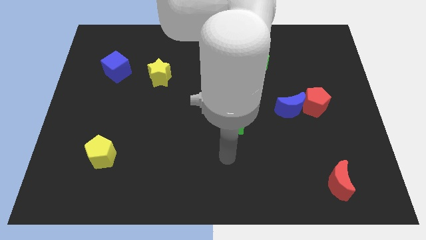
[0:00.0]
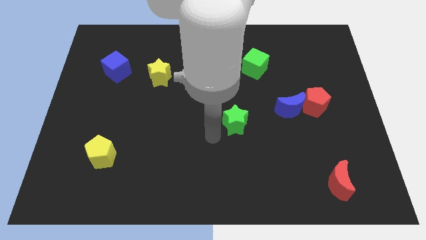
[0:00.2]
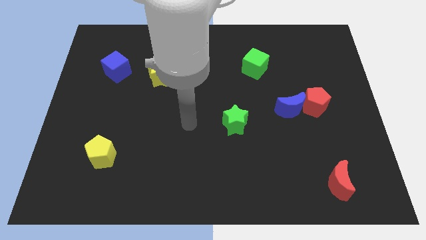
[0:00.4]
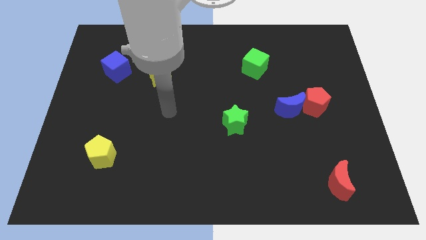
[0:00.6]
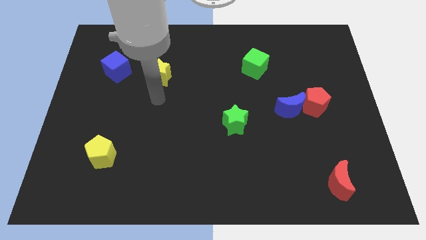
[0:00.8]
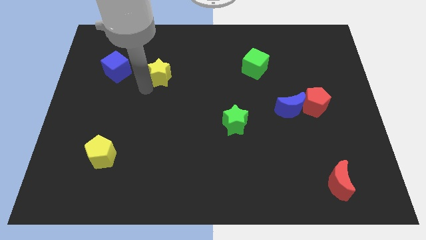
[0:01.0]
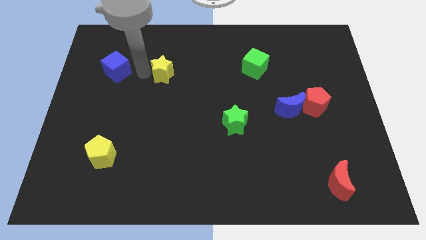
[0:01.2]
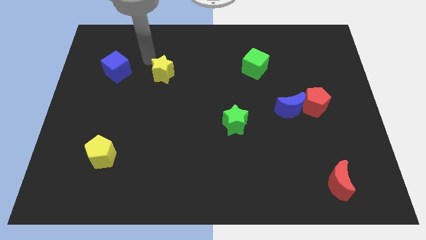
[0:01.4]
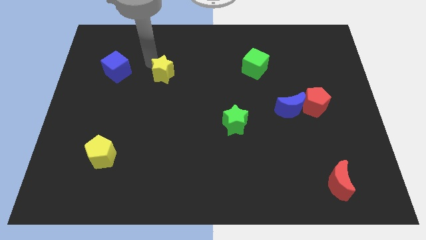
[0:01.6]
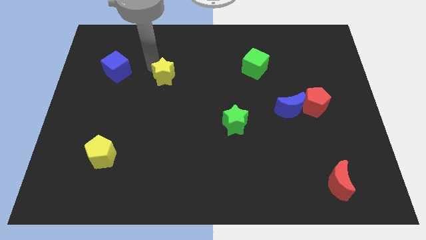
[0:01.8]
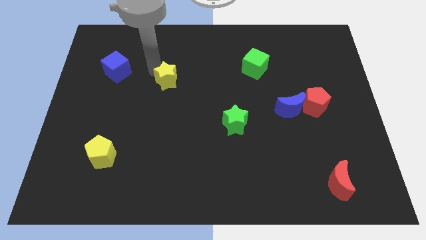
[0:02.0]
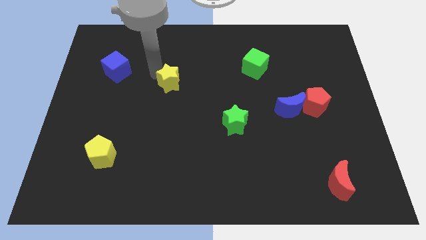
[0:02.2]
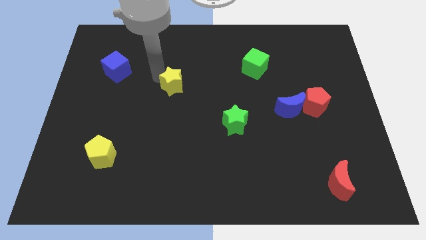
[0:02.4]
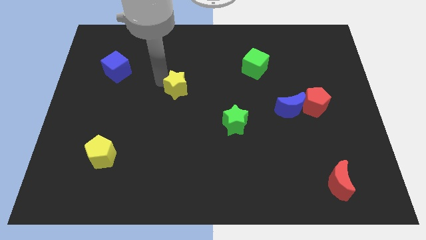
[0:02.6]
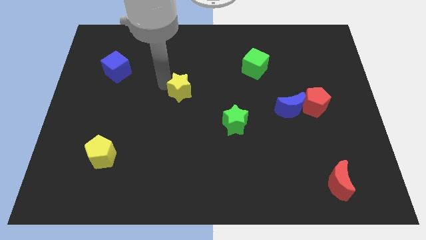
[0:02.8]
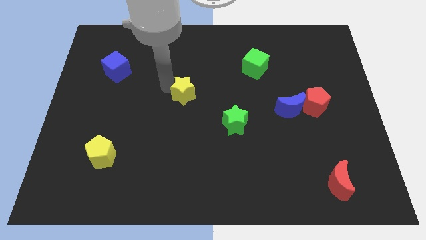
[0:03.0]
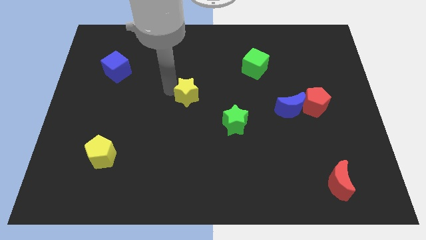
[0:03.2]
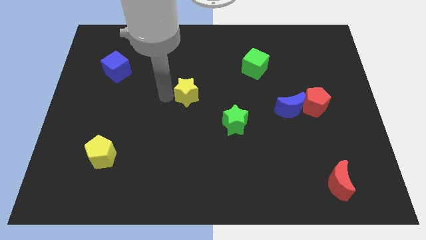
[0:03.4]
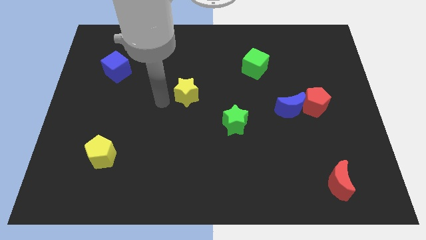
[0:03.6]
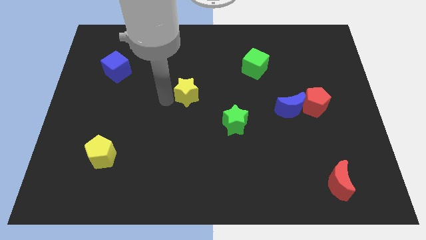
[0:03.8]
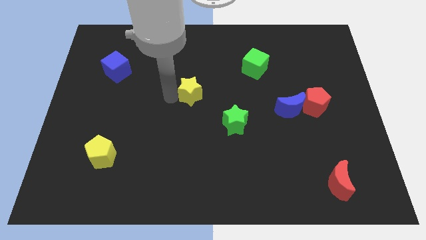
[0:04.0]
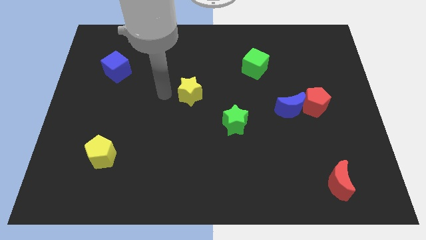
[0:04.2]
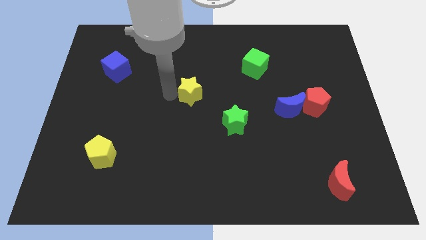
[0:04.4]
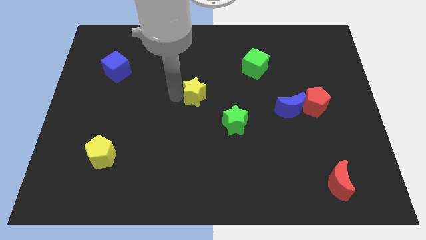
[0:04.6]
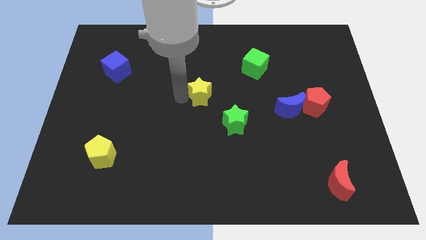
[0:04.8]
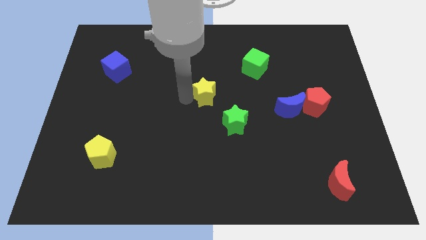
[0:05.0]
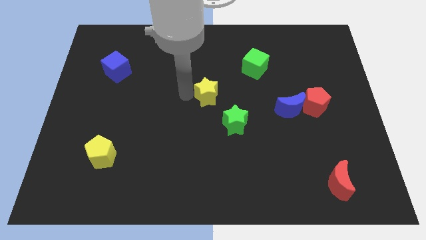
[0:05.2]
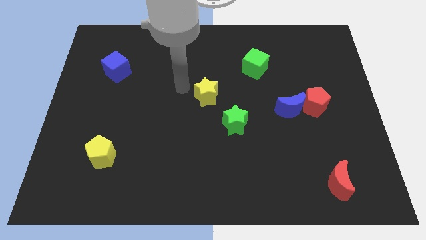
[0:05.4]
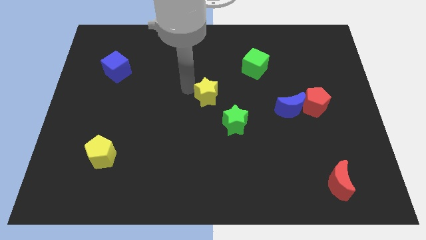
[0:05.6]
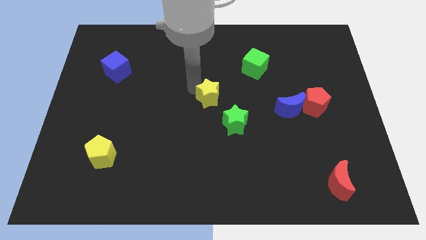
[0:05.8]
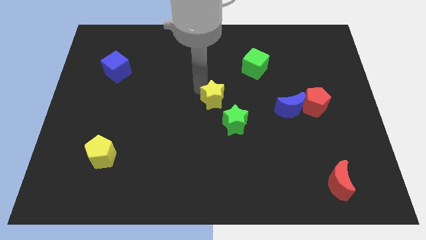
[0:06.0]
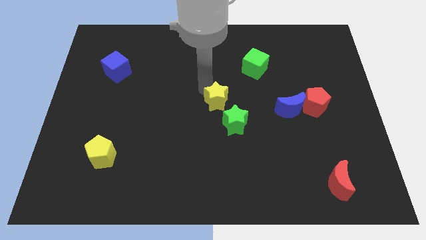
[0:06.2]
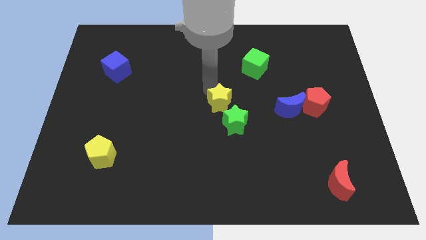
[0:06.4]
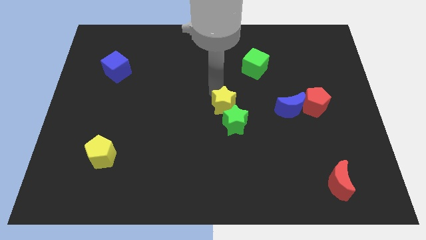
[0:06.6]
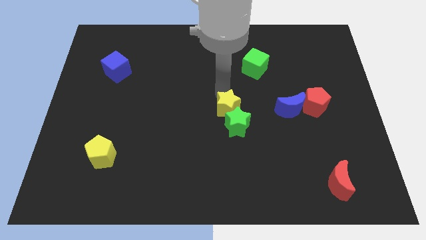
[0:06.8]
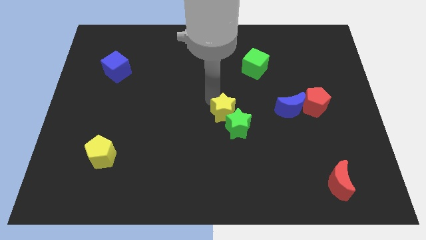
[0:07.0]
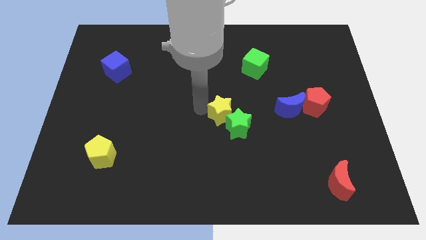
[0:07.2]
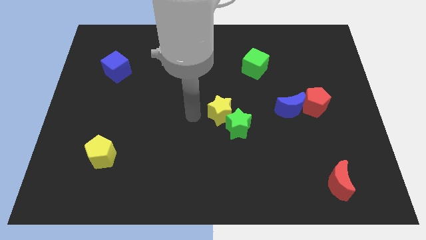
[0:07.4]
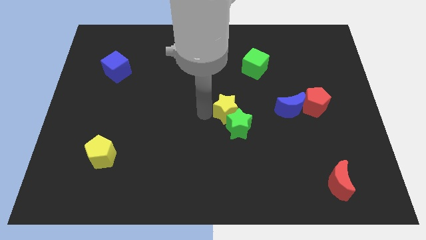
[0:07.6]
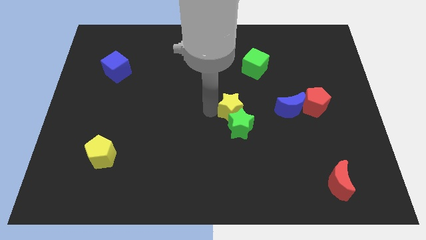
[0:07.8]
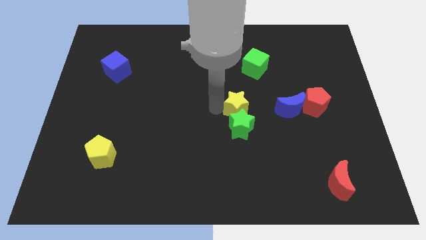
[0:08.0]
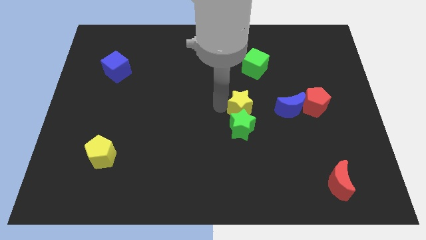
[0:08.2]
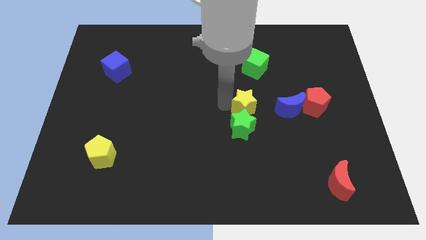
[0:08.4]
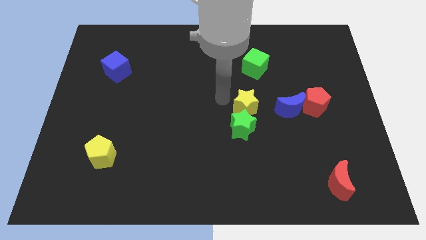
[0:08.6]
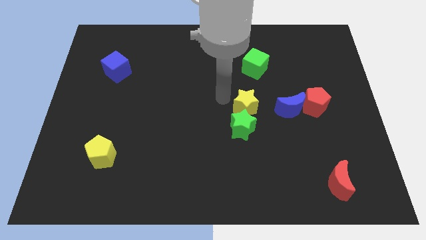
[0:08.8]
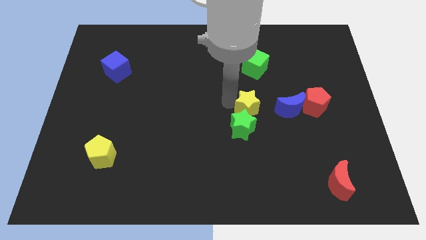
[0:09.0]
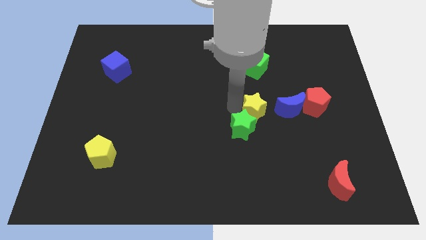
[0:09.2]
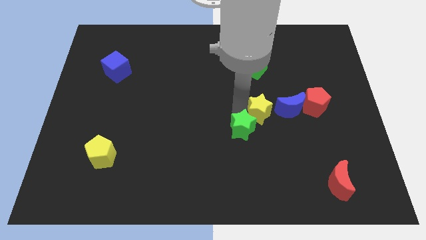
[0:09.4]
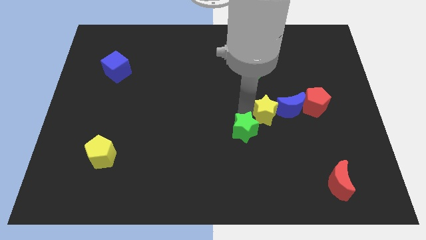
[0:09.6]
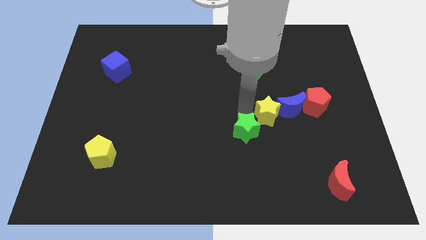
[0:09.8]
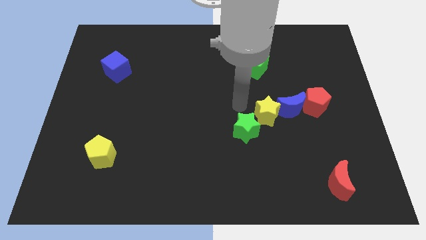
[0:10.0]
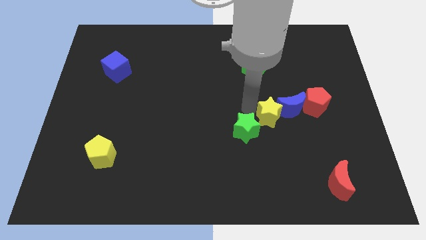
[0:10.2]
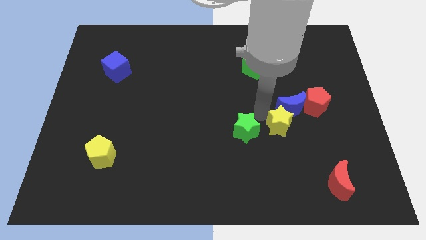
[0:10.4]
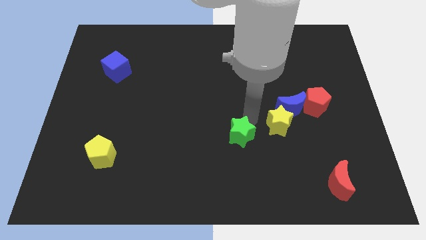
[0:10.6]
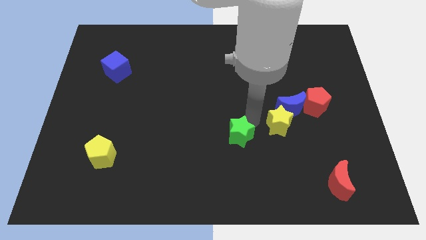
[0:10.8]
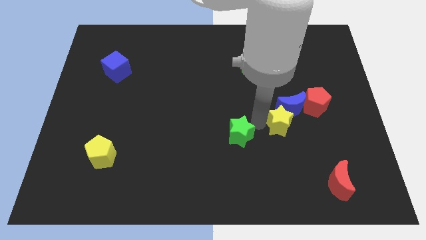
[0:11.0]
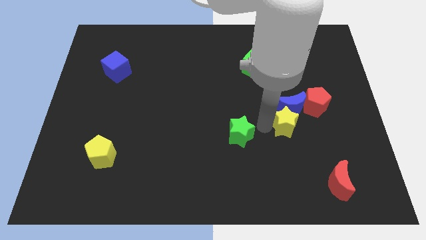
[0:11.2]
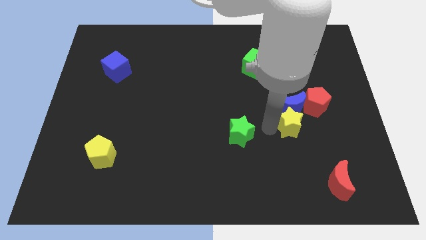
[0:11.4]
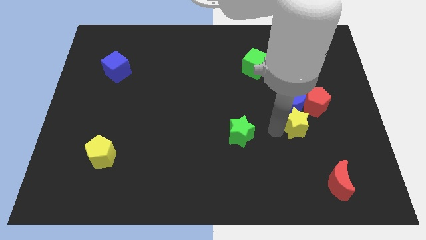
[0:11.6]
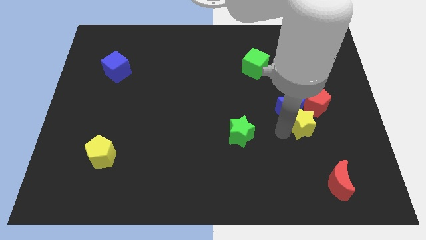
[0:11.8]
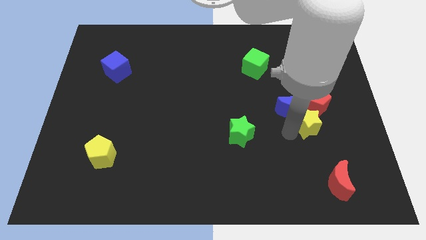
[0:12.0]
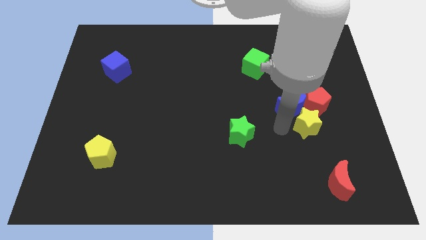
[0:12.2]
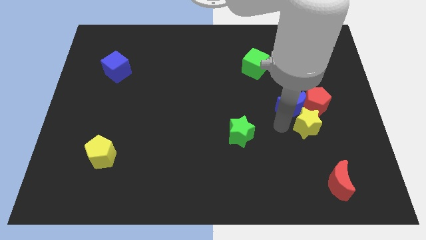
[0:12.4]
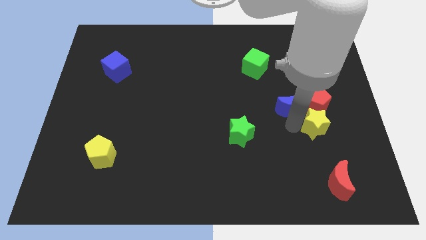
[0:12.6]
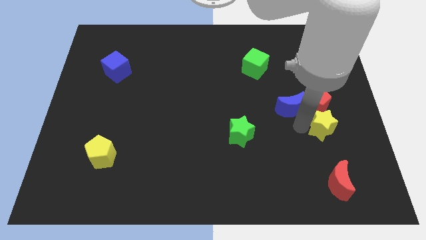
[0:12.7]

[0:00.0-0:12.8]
put the yellow star diagonally down and to the right of the red pentagon

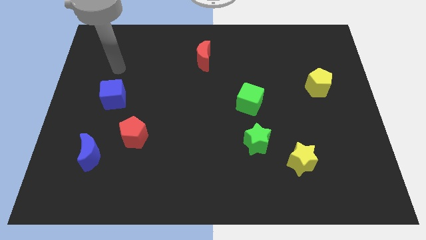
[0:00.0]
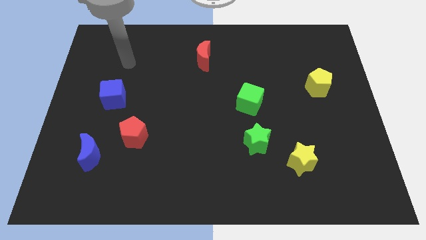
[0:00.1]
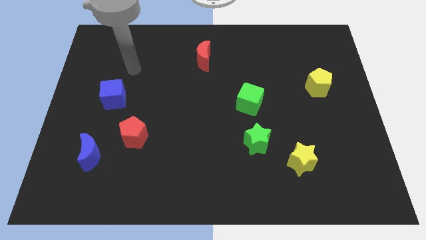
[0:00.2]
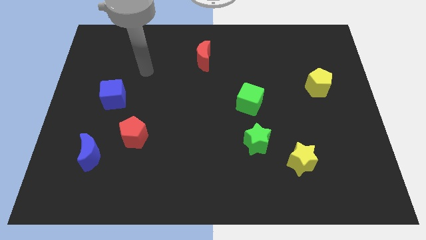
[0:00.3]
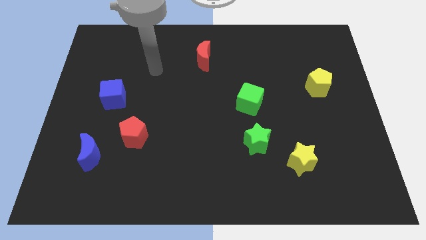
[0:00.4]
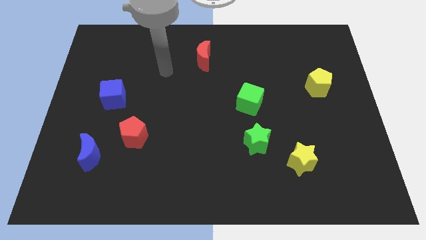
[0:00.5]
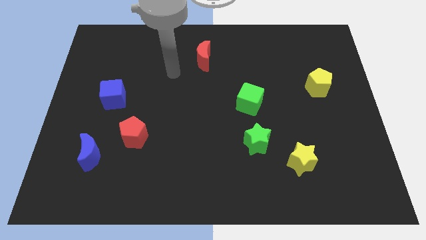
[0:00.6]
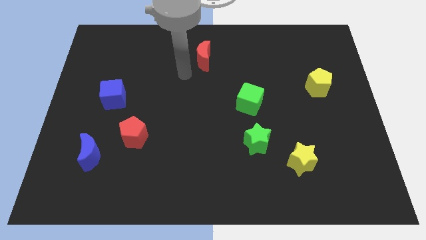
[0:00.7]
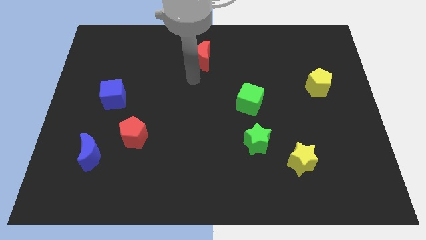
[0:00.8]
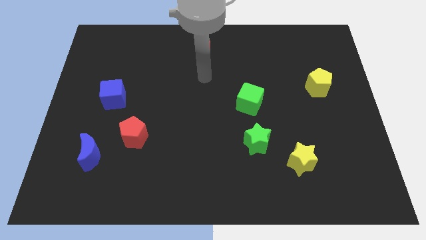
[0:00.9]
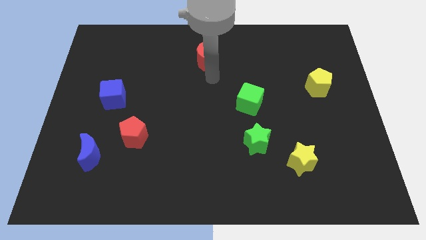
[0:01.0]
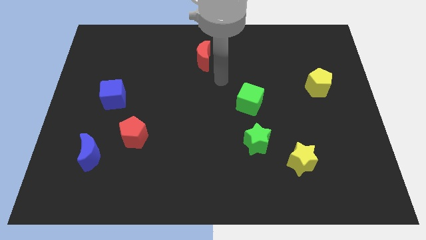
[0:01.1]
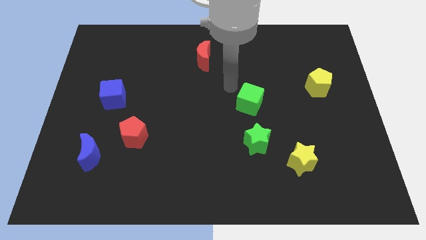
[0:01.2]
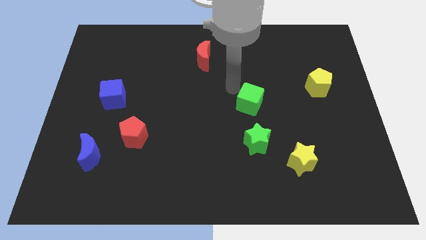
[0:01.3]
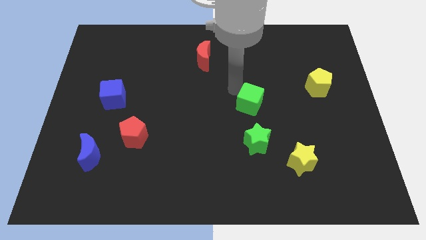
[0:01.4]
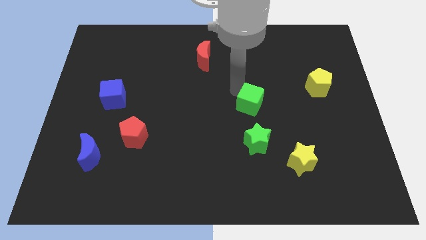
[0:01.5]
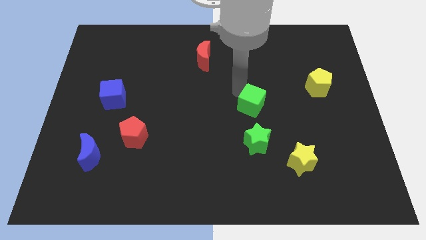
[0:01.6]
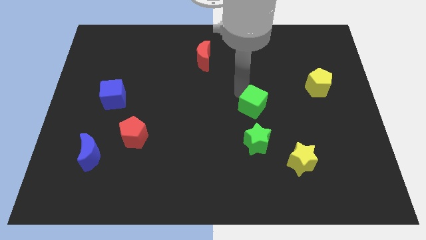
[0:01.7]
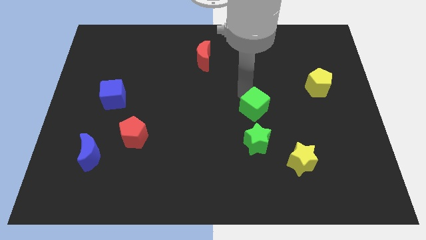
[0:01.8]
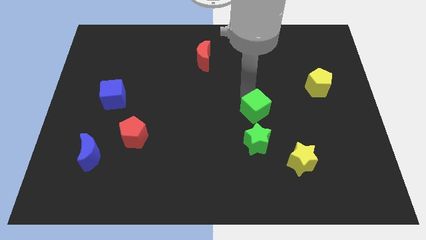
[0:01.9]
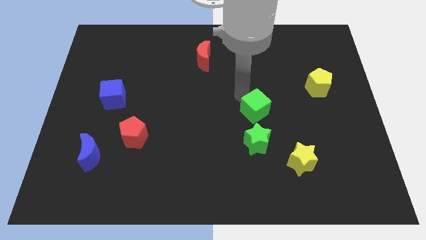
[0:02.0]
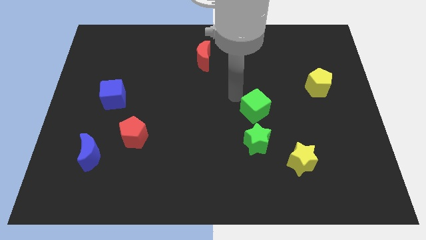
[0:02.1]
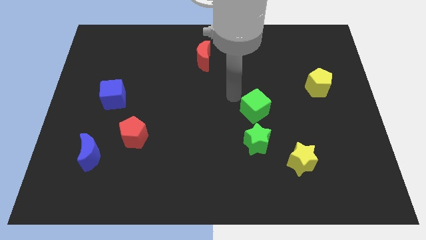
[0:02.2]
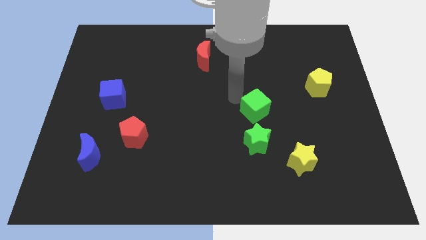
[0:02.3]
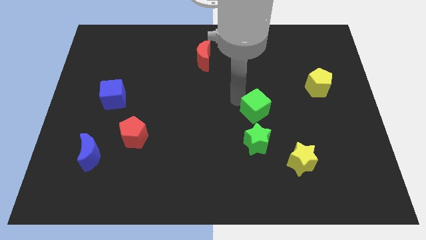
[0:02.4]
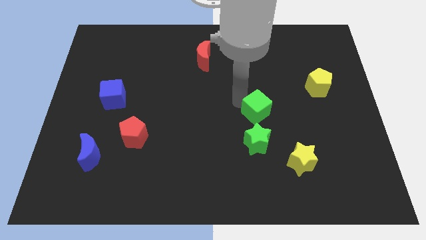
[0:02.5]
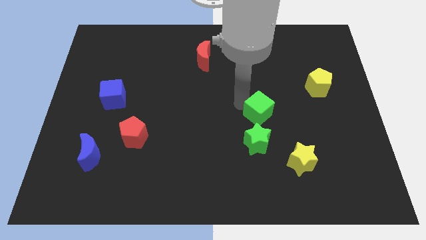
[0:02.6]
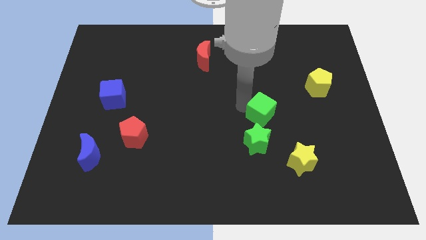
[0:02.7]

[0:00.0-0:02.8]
move the green cube to the top right side of the green star
